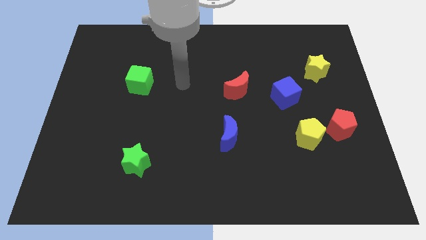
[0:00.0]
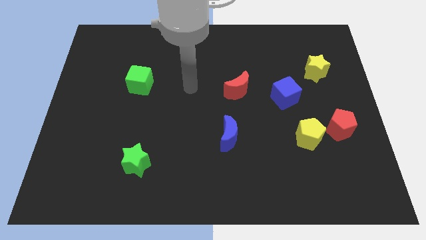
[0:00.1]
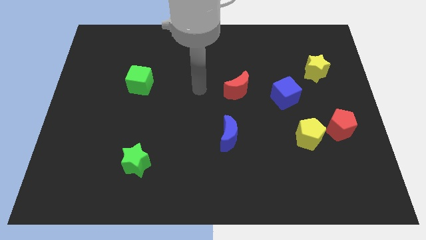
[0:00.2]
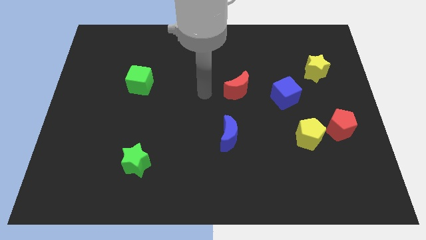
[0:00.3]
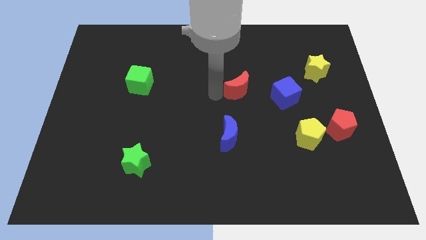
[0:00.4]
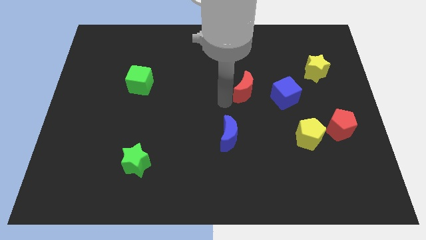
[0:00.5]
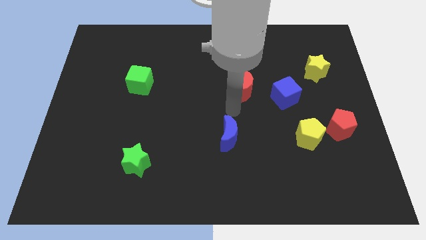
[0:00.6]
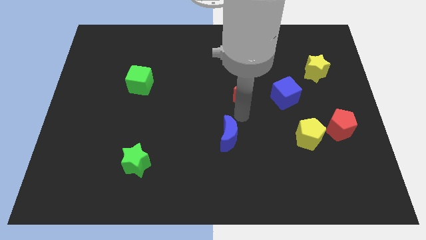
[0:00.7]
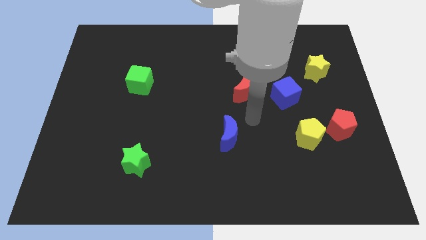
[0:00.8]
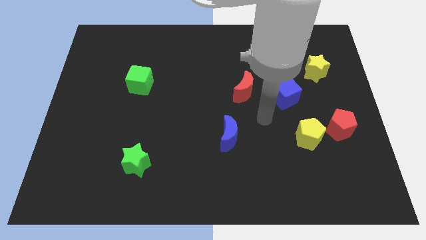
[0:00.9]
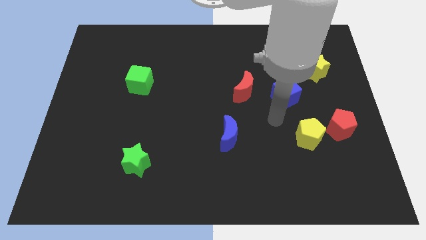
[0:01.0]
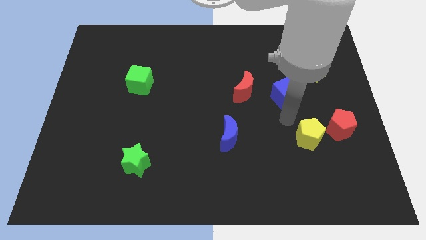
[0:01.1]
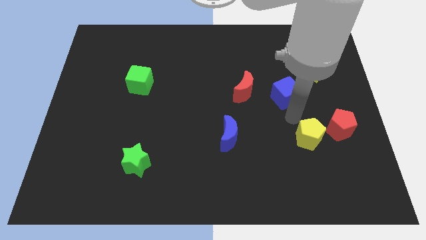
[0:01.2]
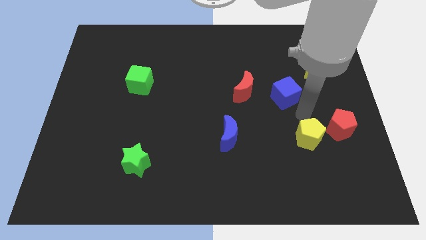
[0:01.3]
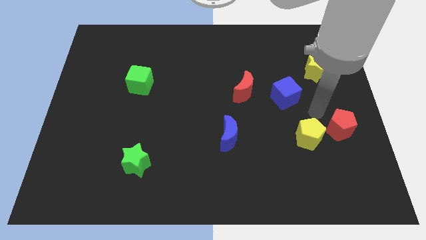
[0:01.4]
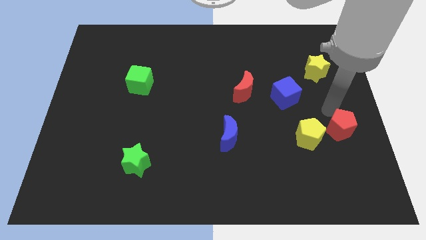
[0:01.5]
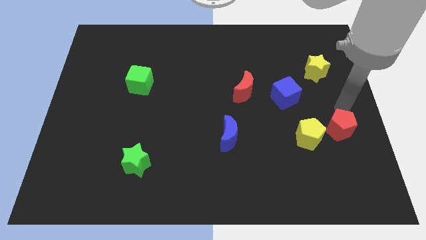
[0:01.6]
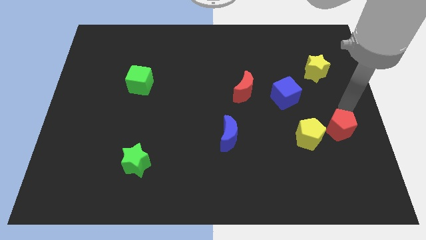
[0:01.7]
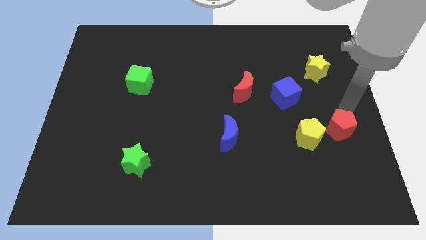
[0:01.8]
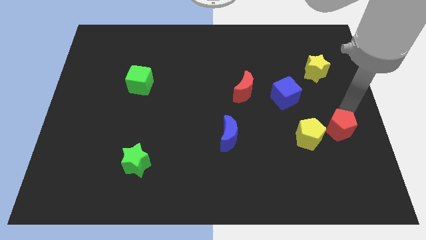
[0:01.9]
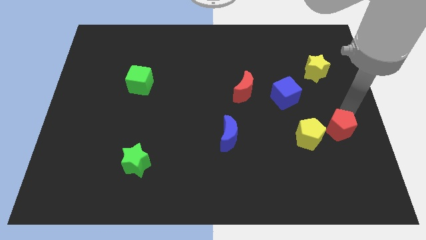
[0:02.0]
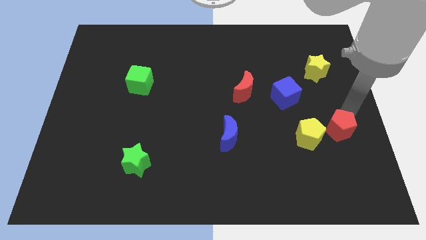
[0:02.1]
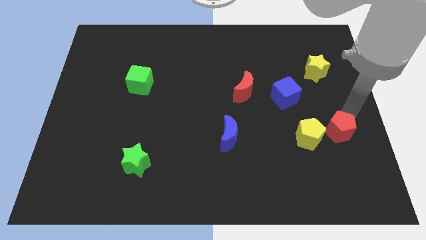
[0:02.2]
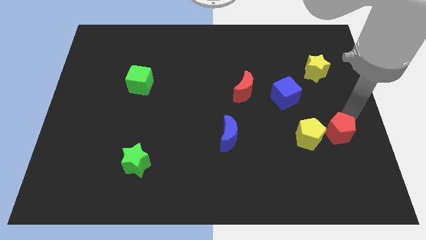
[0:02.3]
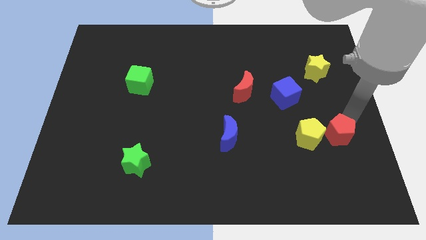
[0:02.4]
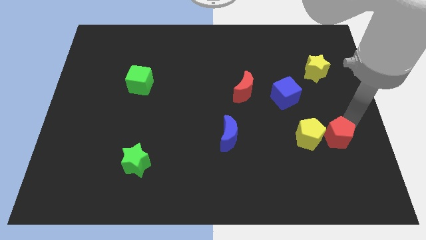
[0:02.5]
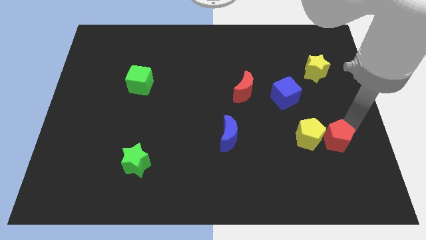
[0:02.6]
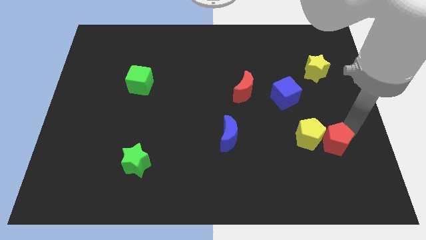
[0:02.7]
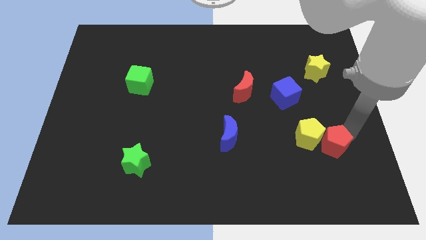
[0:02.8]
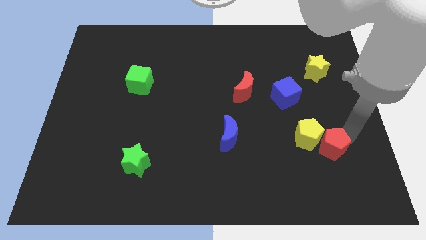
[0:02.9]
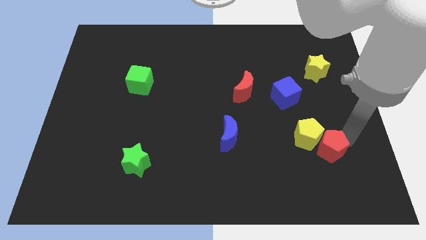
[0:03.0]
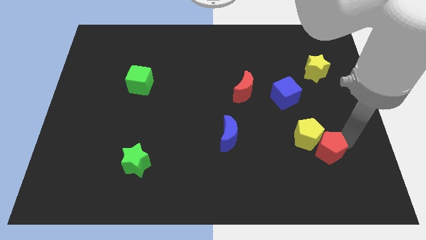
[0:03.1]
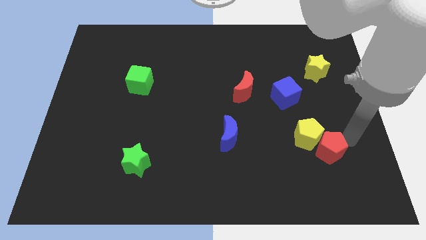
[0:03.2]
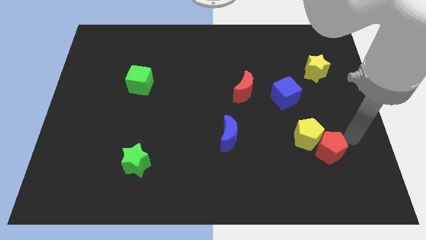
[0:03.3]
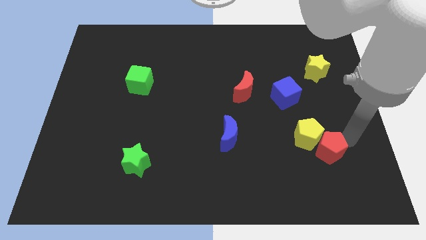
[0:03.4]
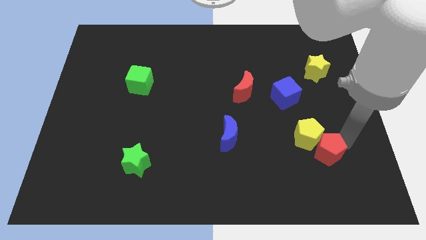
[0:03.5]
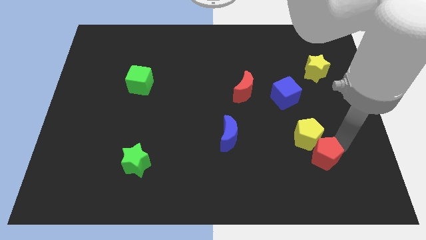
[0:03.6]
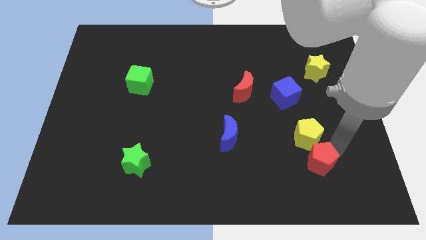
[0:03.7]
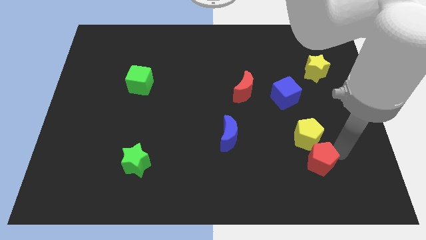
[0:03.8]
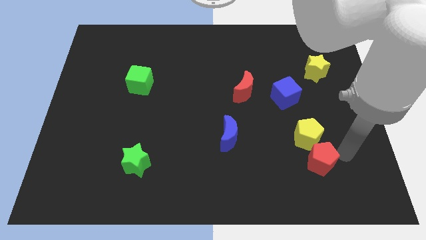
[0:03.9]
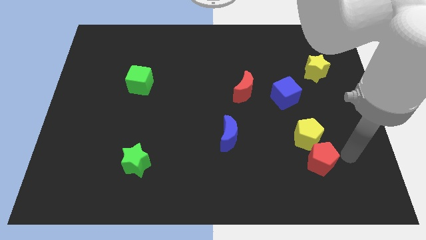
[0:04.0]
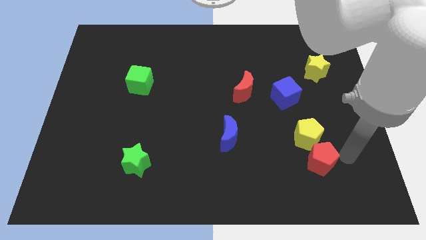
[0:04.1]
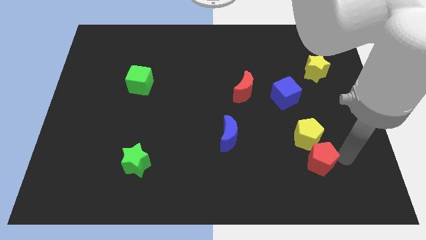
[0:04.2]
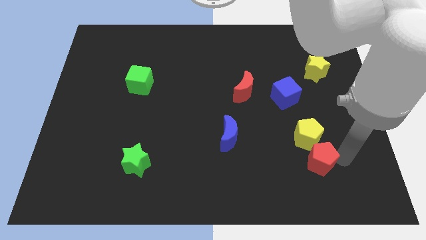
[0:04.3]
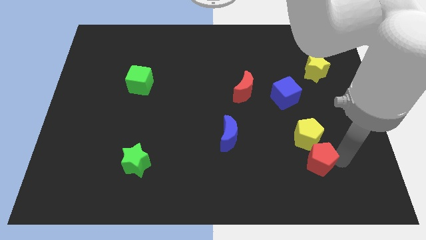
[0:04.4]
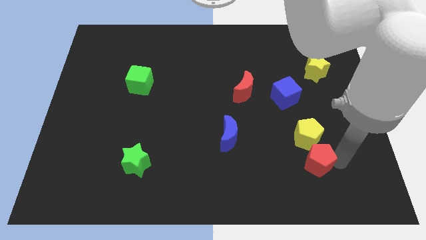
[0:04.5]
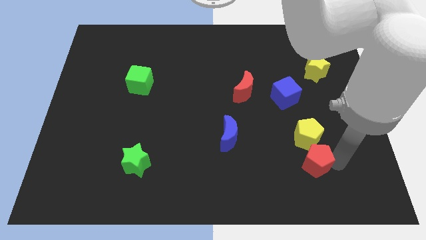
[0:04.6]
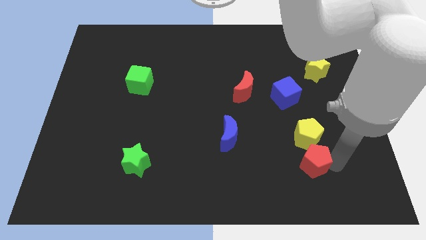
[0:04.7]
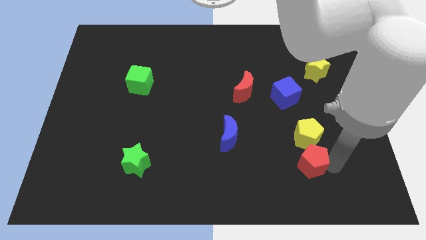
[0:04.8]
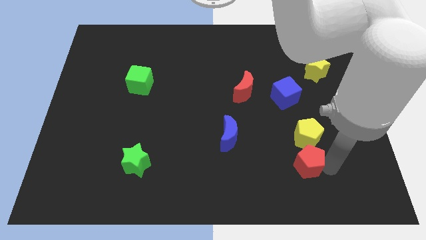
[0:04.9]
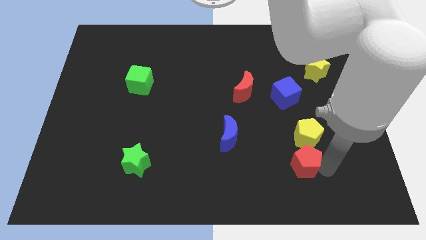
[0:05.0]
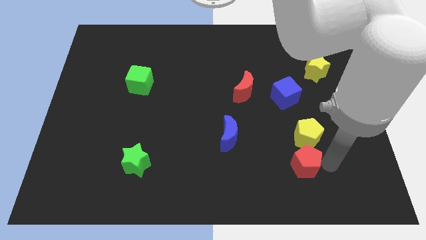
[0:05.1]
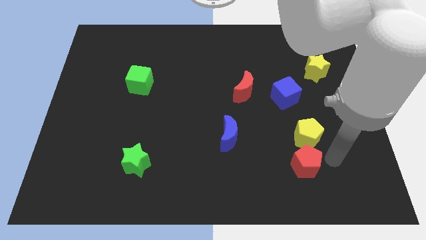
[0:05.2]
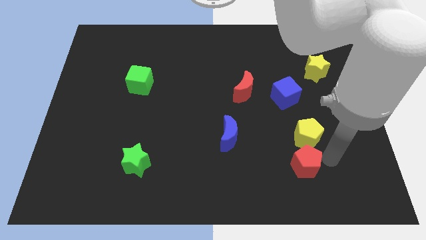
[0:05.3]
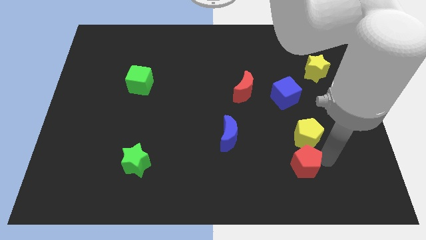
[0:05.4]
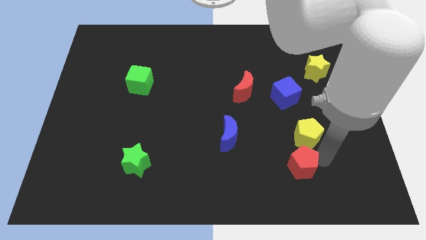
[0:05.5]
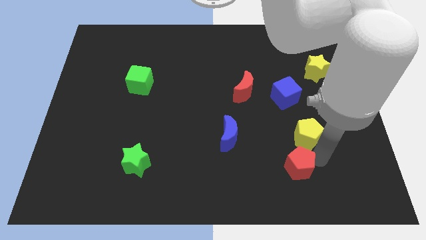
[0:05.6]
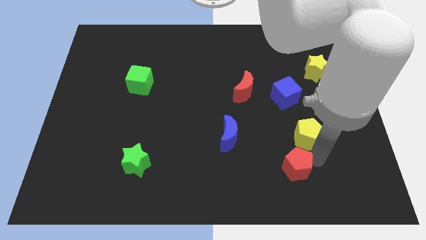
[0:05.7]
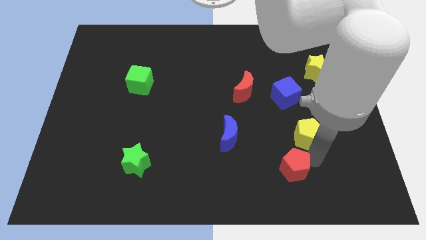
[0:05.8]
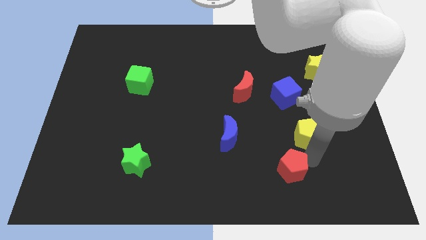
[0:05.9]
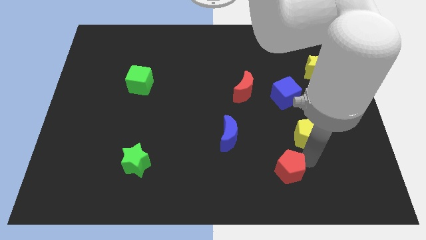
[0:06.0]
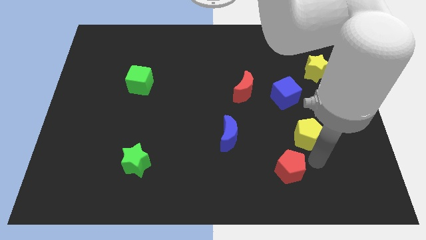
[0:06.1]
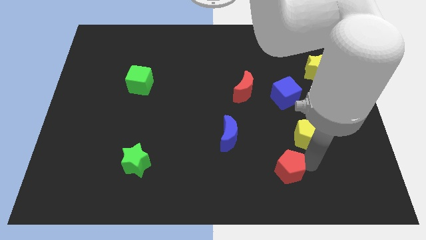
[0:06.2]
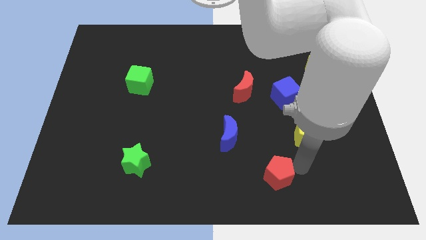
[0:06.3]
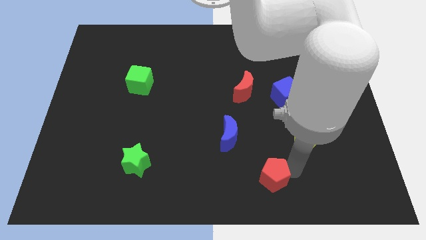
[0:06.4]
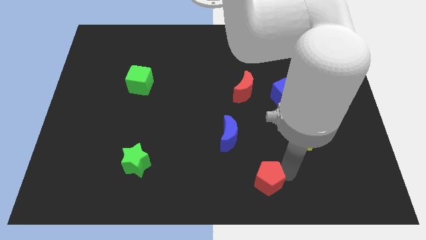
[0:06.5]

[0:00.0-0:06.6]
move the red pentagon to the bottom side
